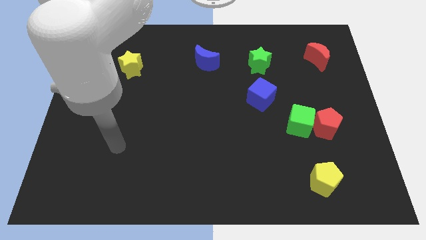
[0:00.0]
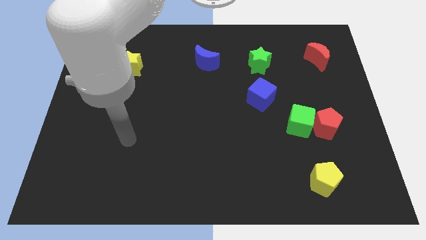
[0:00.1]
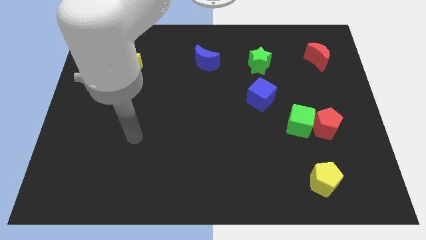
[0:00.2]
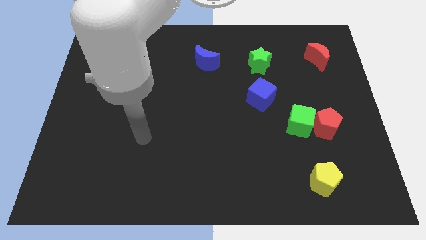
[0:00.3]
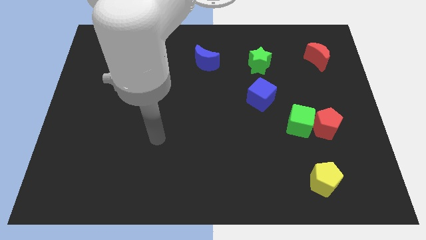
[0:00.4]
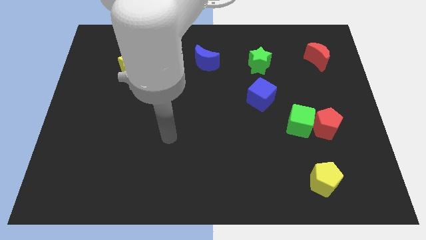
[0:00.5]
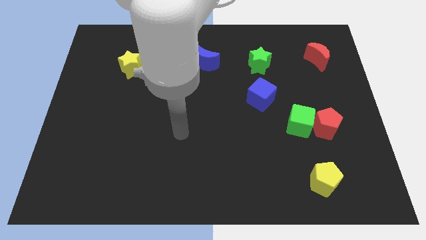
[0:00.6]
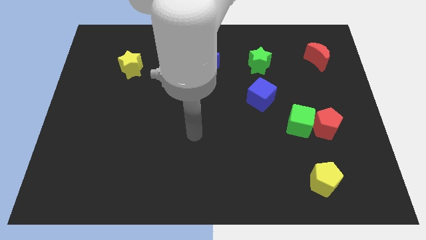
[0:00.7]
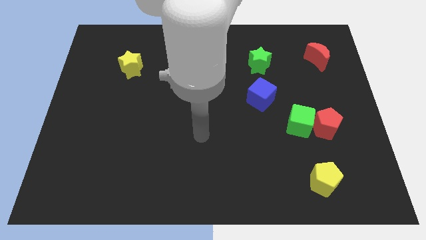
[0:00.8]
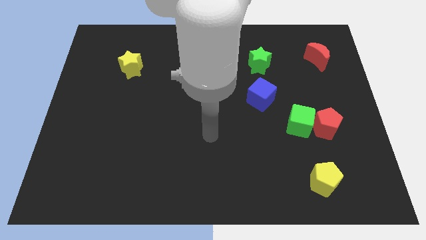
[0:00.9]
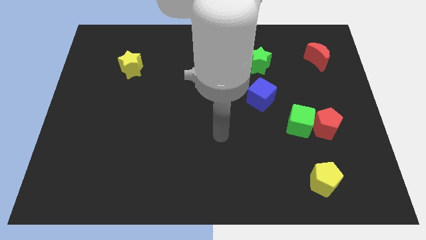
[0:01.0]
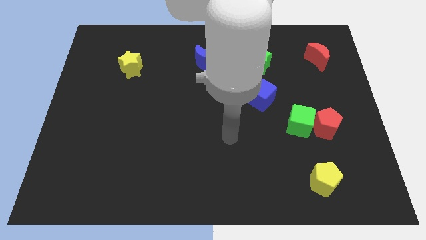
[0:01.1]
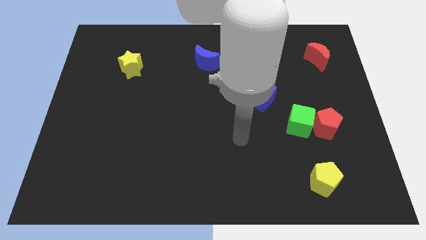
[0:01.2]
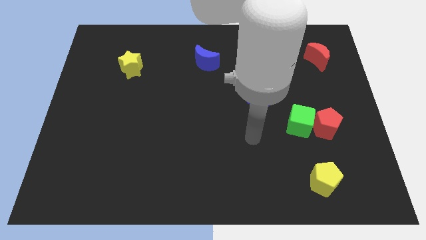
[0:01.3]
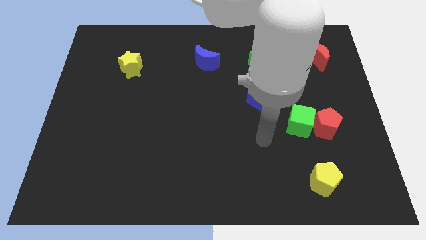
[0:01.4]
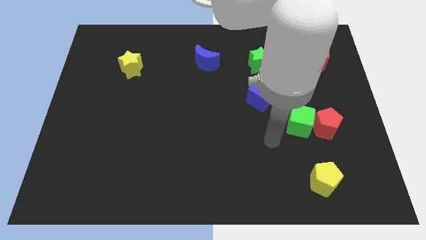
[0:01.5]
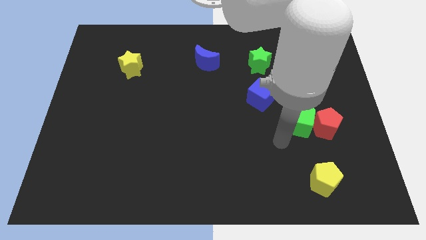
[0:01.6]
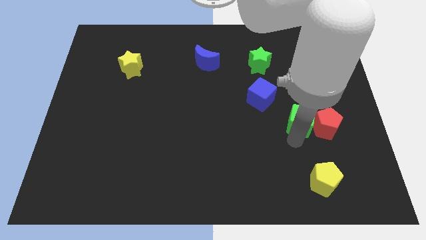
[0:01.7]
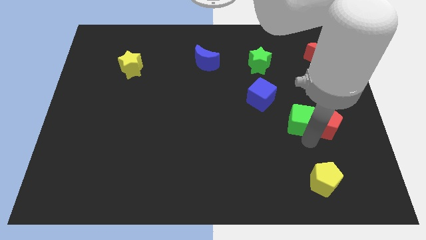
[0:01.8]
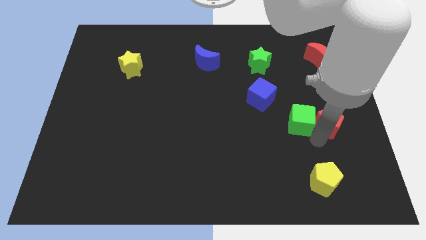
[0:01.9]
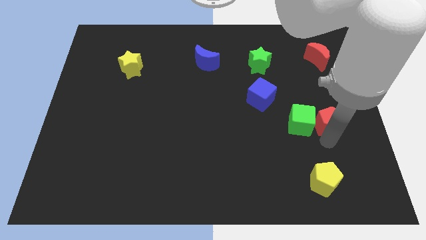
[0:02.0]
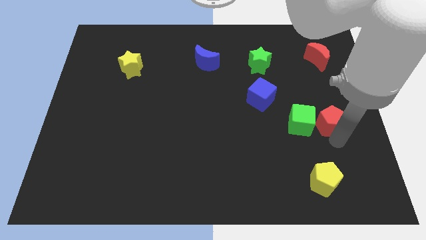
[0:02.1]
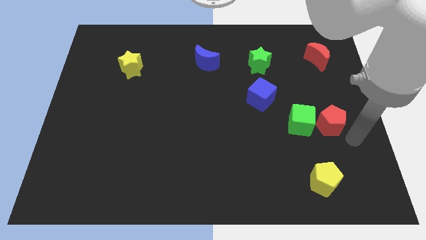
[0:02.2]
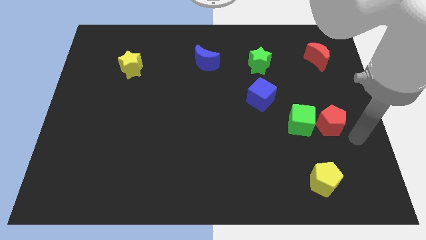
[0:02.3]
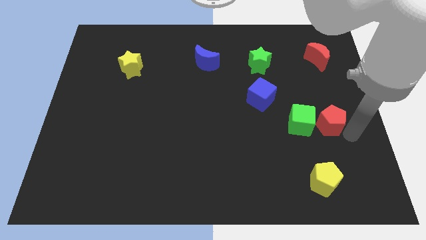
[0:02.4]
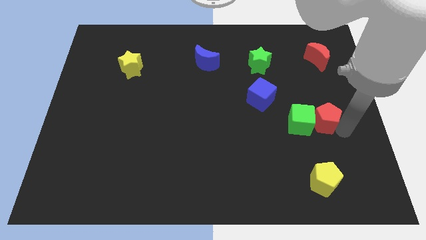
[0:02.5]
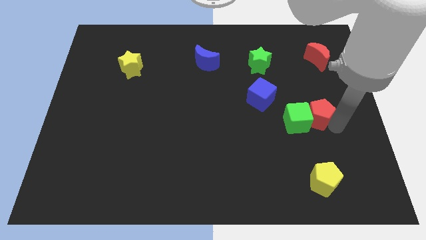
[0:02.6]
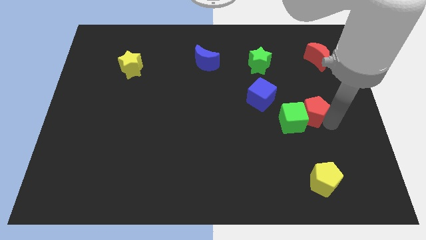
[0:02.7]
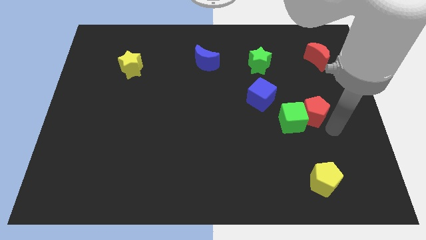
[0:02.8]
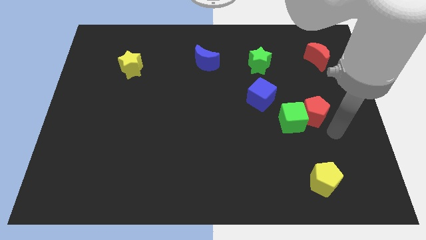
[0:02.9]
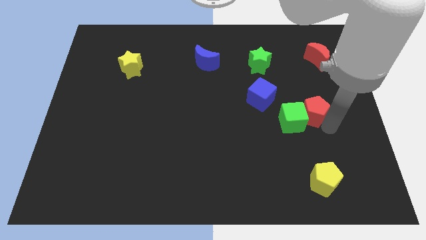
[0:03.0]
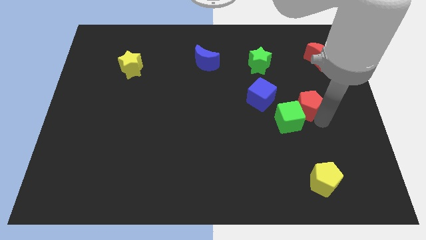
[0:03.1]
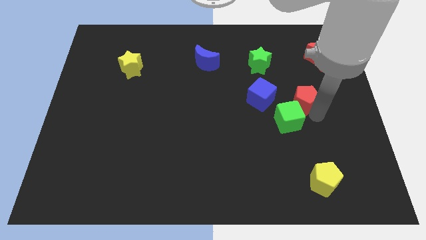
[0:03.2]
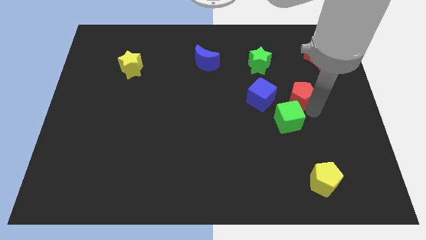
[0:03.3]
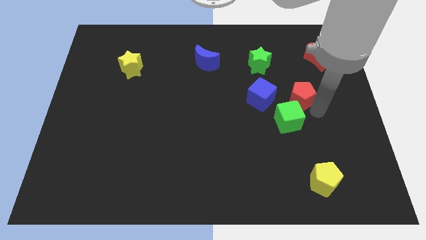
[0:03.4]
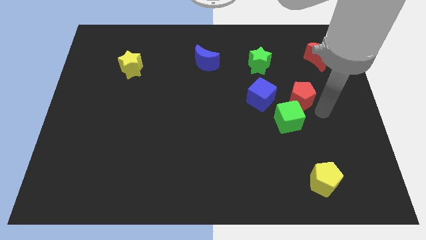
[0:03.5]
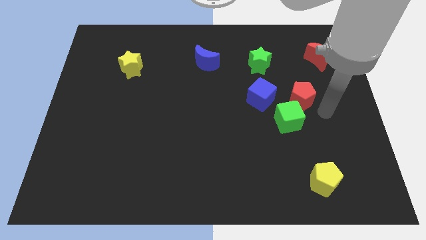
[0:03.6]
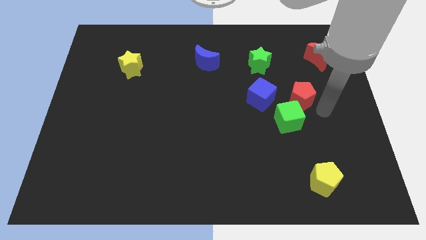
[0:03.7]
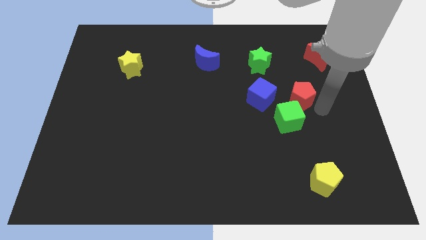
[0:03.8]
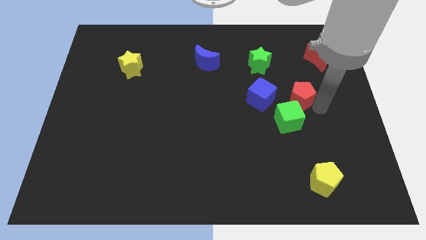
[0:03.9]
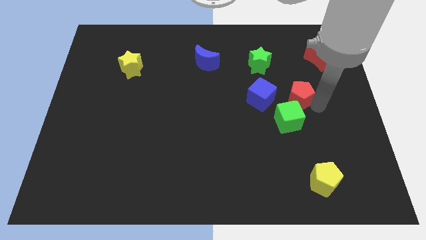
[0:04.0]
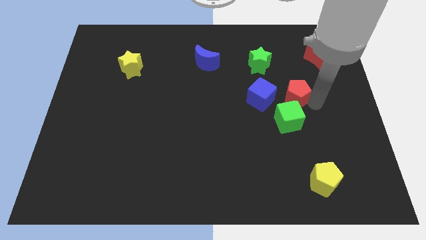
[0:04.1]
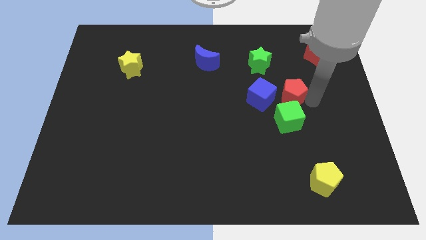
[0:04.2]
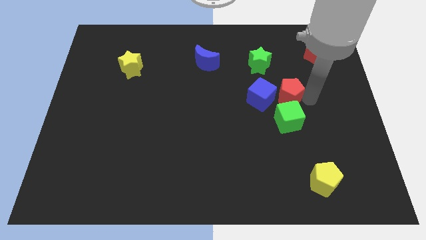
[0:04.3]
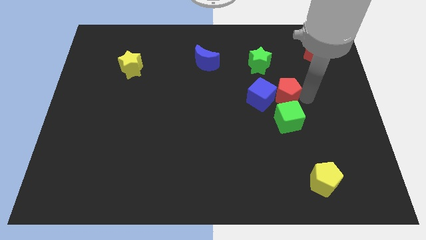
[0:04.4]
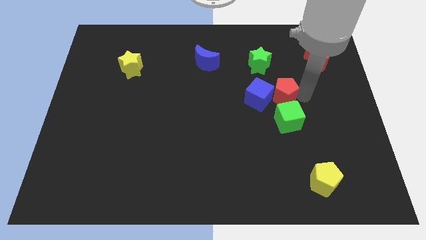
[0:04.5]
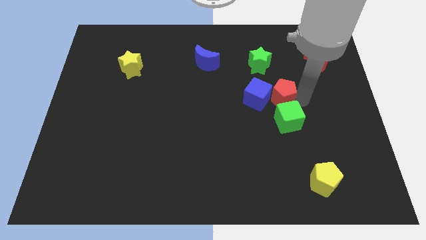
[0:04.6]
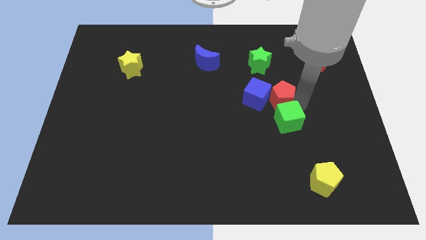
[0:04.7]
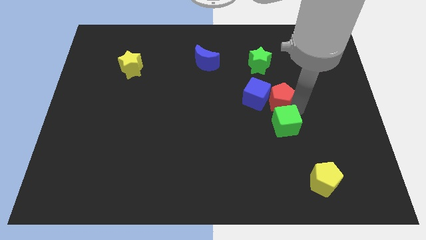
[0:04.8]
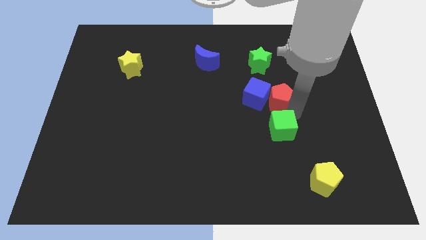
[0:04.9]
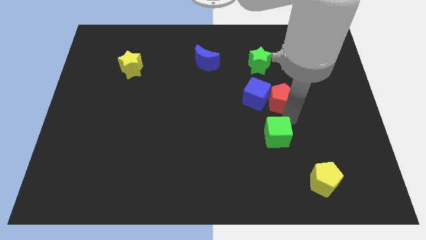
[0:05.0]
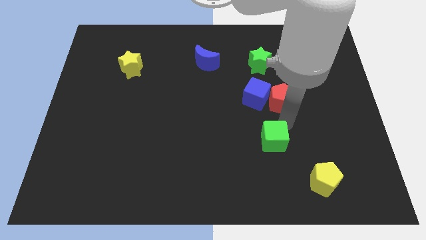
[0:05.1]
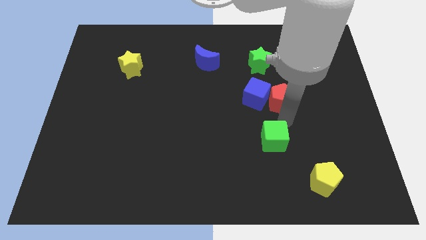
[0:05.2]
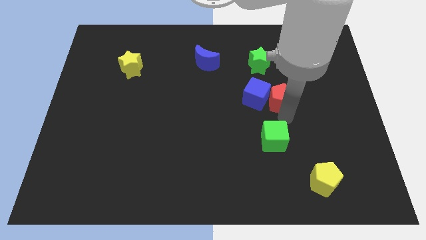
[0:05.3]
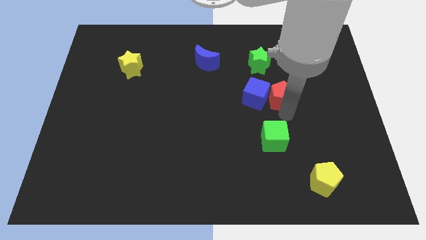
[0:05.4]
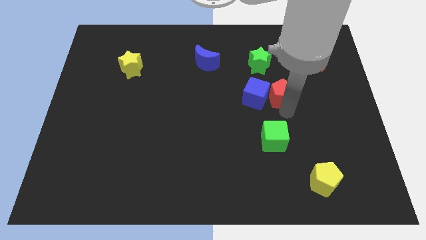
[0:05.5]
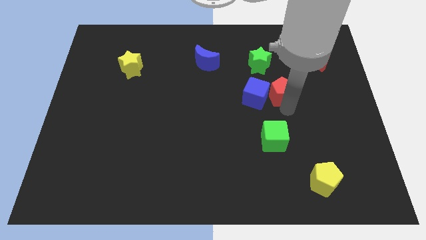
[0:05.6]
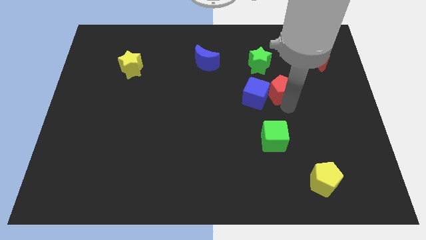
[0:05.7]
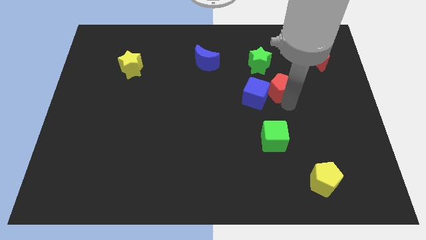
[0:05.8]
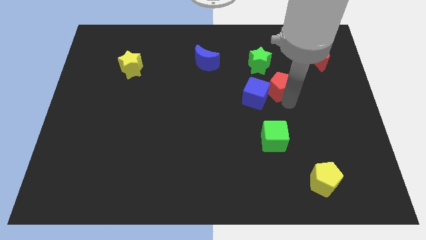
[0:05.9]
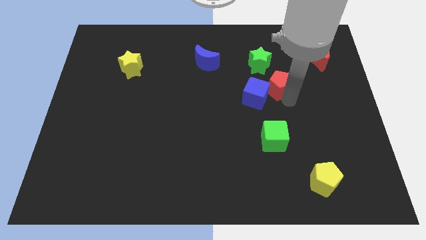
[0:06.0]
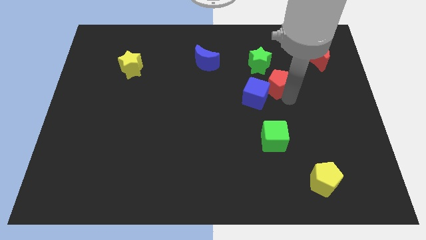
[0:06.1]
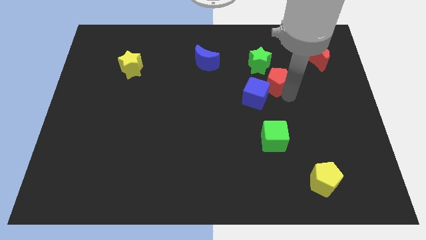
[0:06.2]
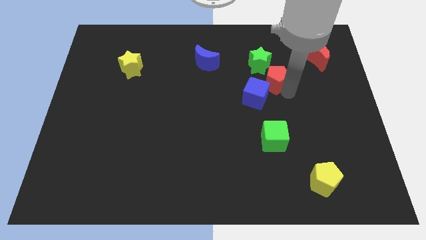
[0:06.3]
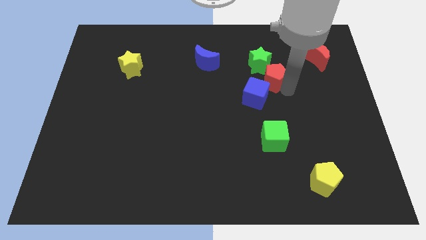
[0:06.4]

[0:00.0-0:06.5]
push the red pentagon close to the green star
